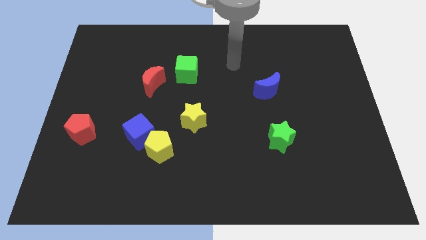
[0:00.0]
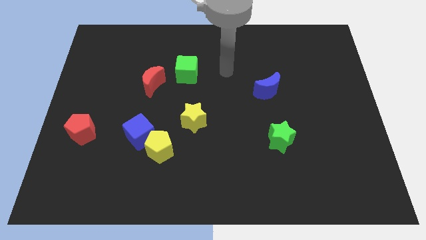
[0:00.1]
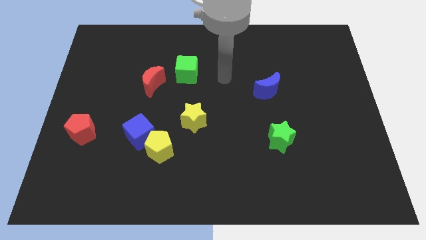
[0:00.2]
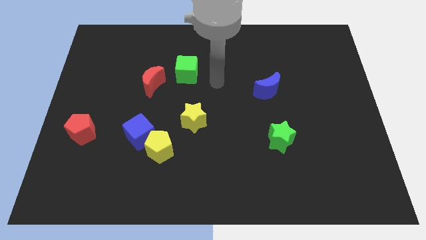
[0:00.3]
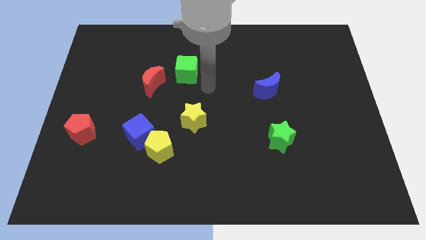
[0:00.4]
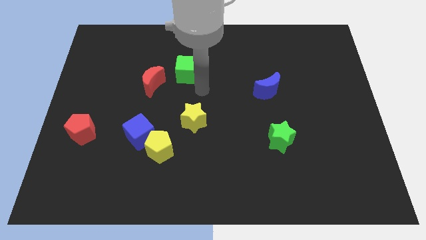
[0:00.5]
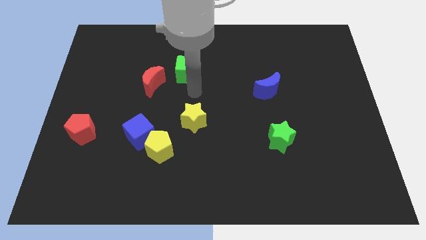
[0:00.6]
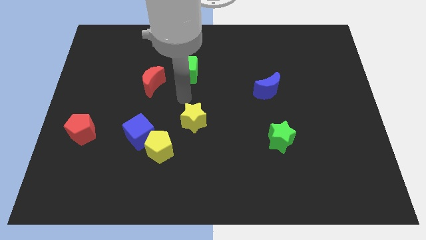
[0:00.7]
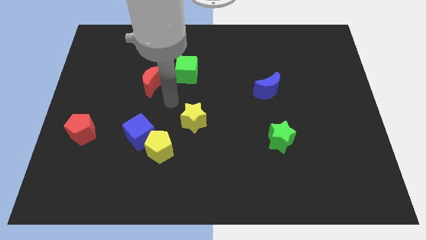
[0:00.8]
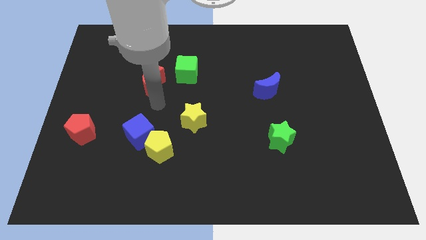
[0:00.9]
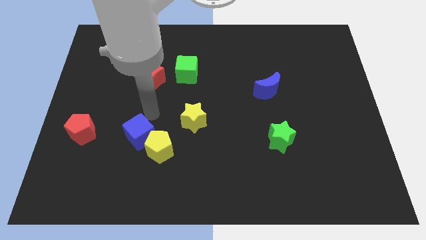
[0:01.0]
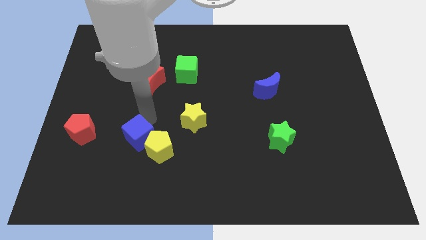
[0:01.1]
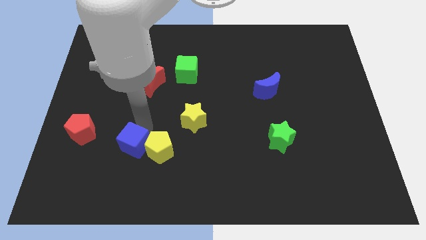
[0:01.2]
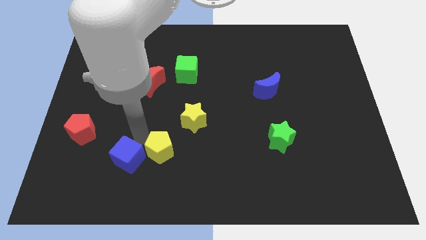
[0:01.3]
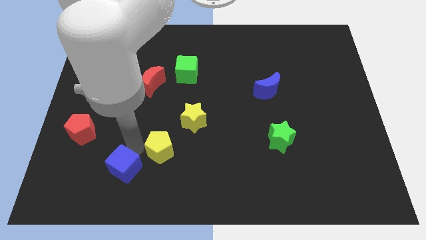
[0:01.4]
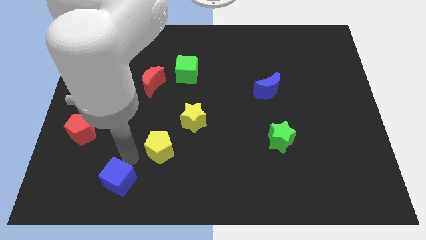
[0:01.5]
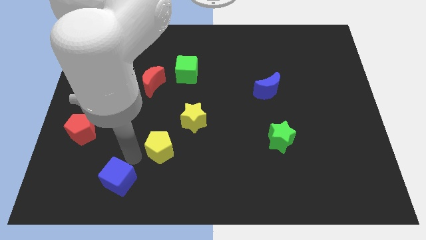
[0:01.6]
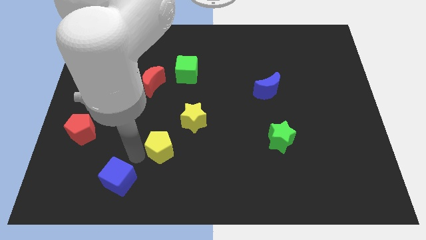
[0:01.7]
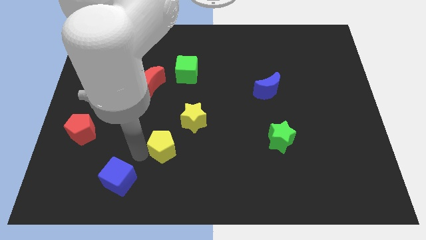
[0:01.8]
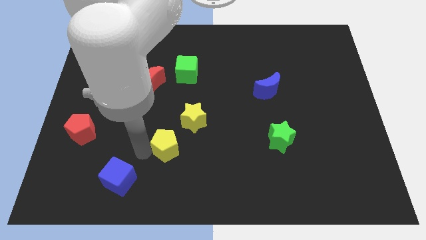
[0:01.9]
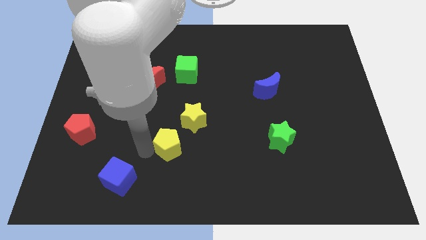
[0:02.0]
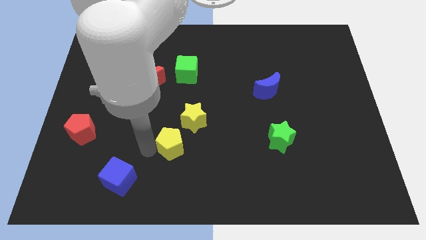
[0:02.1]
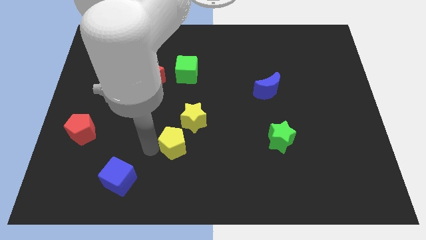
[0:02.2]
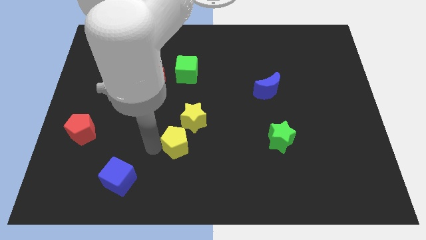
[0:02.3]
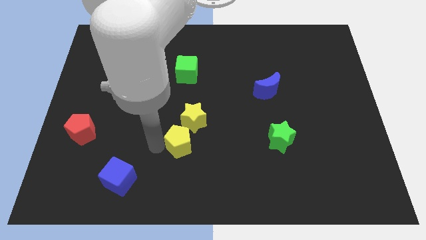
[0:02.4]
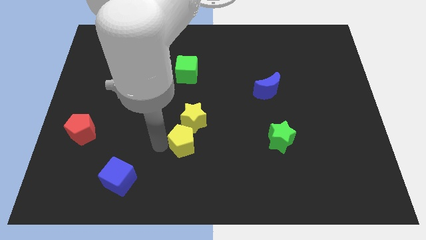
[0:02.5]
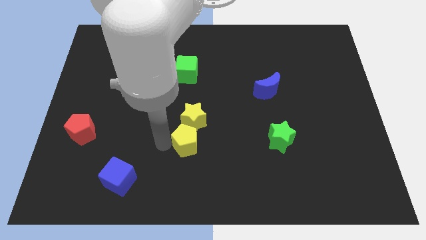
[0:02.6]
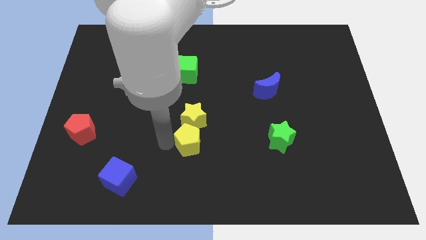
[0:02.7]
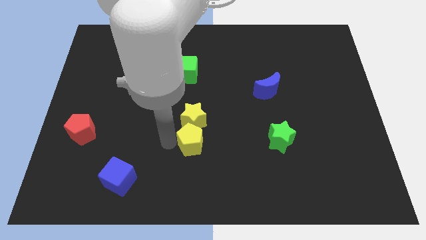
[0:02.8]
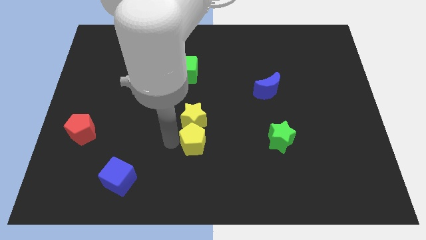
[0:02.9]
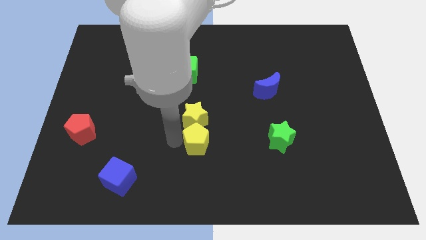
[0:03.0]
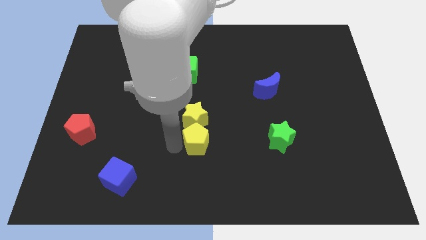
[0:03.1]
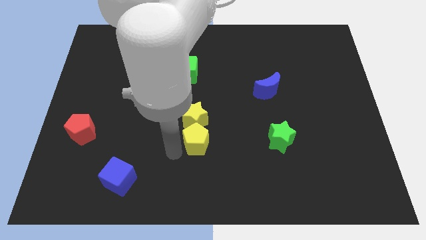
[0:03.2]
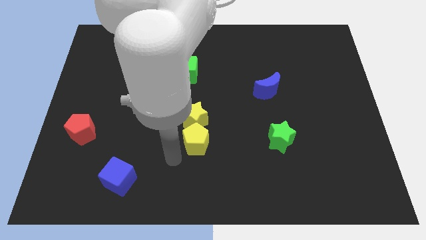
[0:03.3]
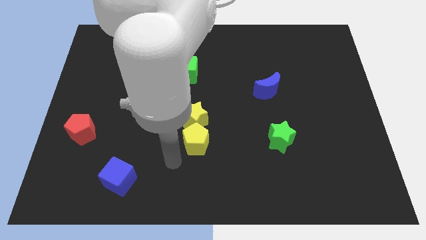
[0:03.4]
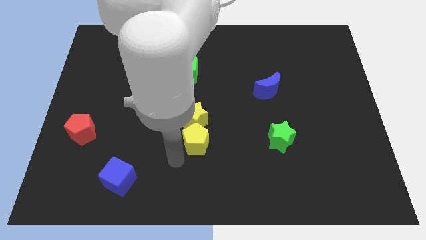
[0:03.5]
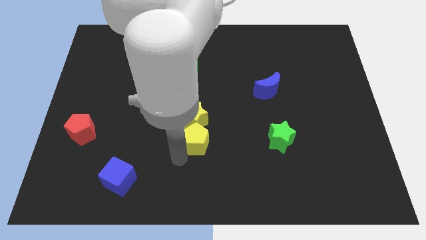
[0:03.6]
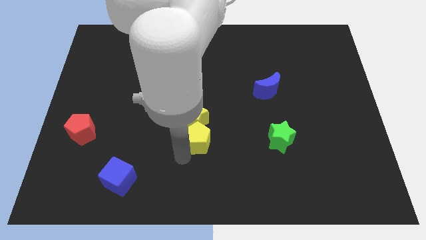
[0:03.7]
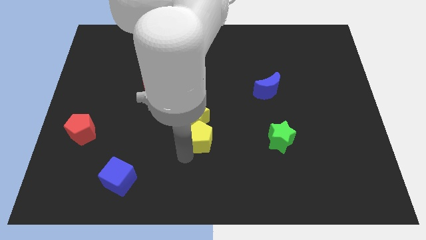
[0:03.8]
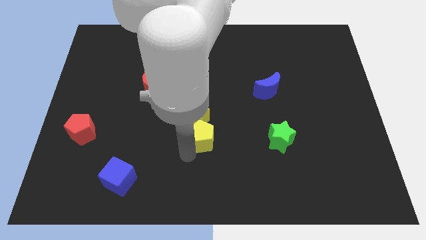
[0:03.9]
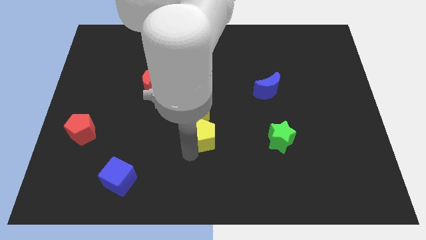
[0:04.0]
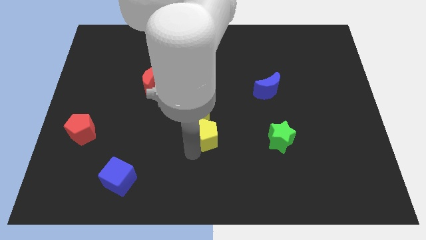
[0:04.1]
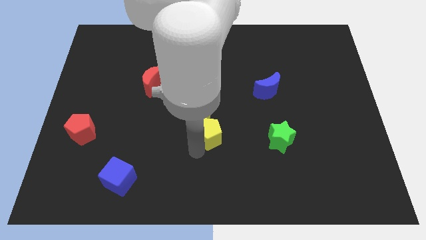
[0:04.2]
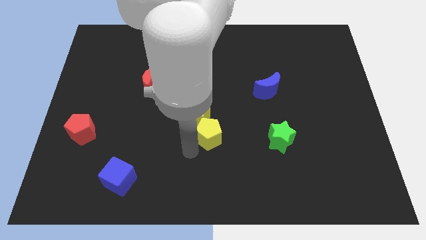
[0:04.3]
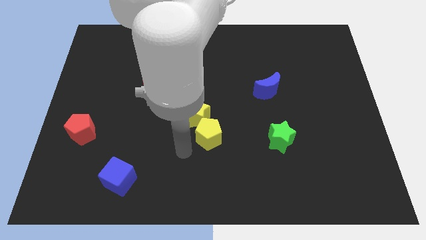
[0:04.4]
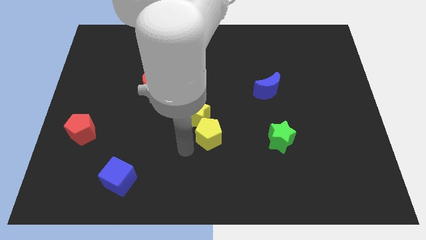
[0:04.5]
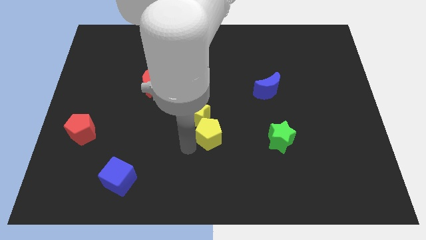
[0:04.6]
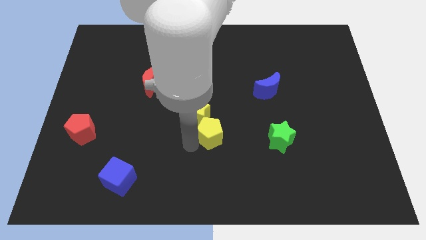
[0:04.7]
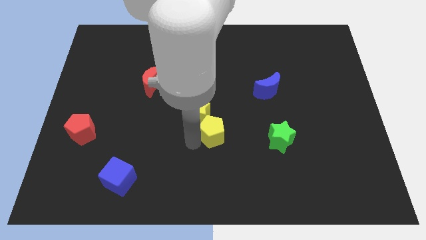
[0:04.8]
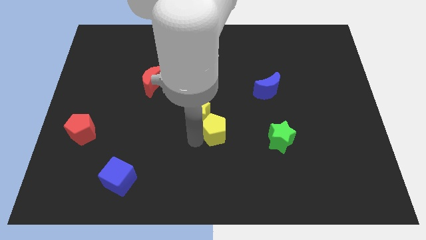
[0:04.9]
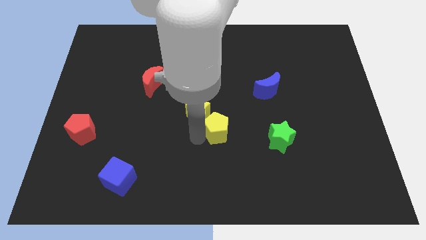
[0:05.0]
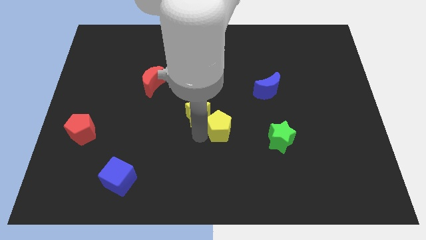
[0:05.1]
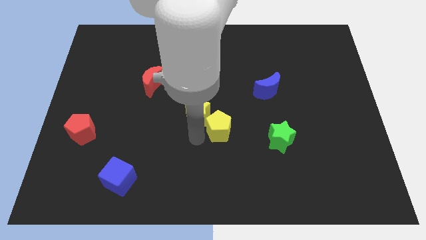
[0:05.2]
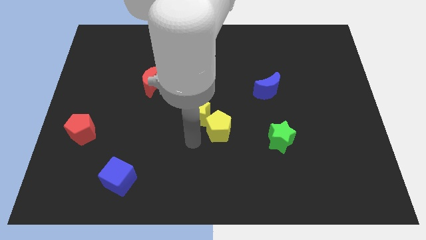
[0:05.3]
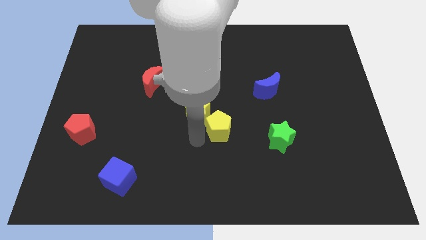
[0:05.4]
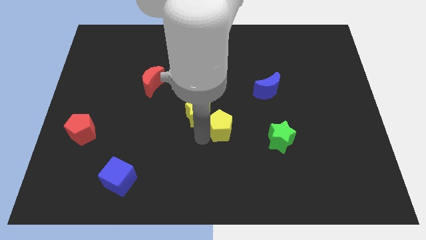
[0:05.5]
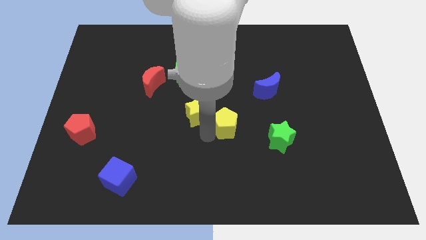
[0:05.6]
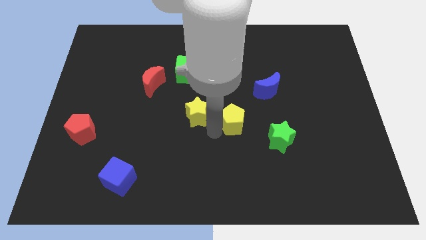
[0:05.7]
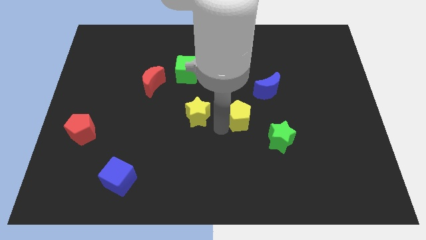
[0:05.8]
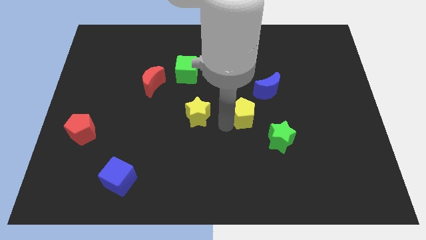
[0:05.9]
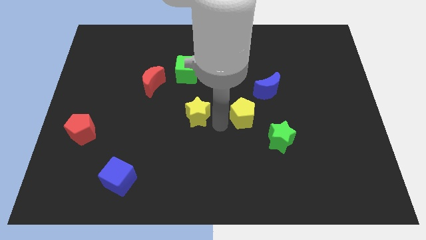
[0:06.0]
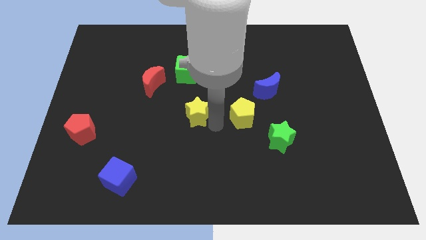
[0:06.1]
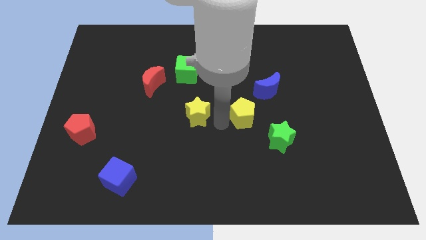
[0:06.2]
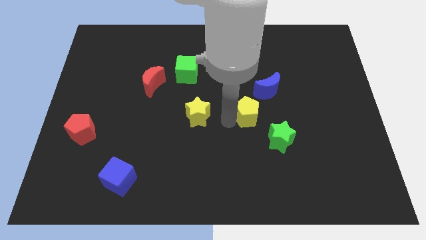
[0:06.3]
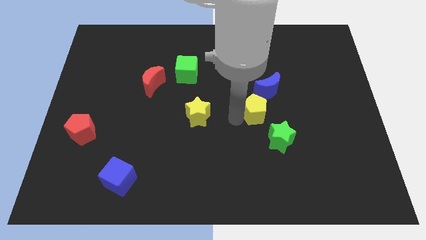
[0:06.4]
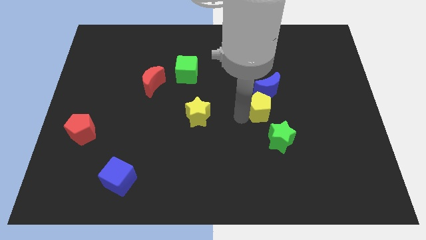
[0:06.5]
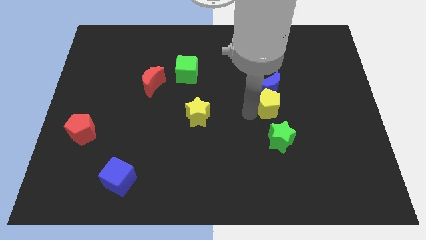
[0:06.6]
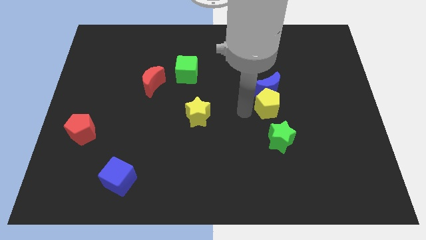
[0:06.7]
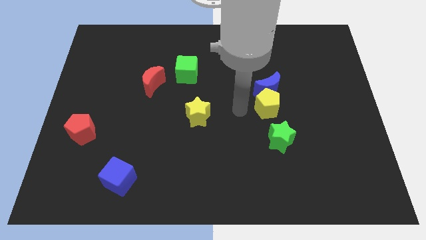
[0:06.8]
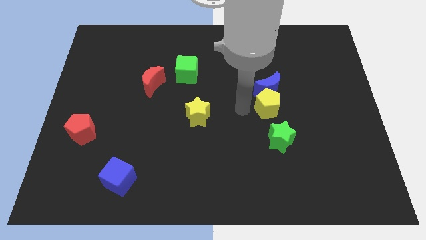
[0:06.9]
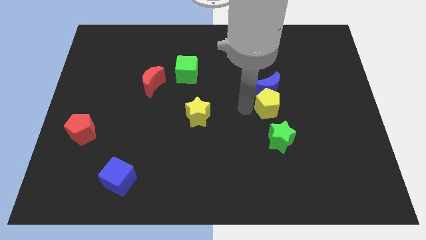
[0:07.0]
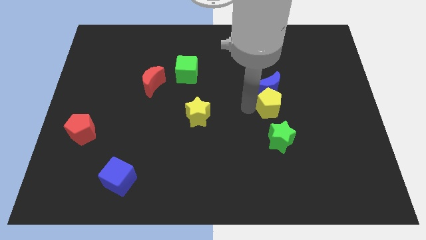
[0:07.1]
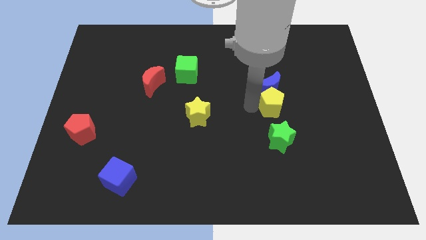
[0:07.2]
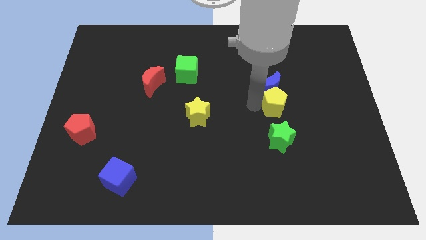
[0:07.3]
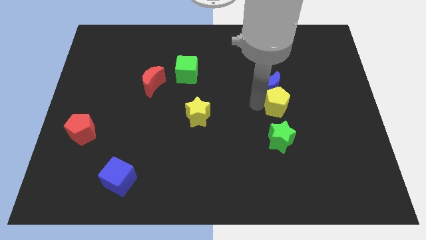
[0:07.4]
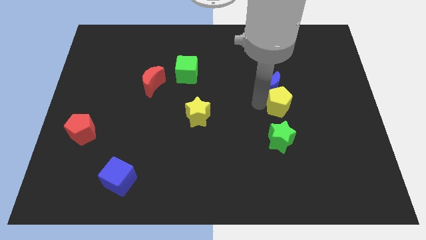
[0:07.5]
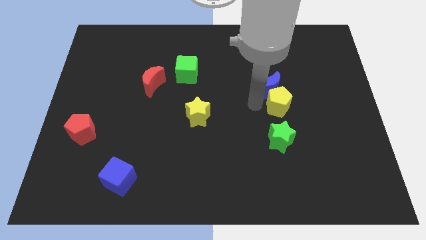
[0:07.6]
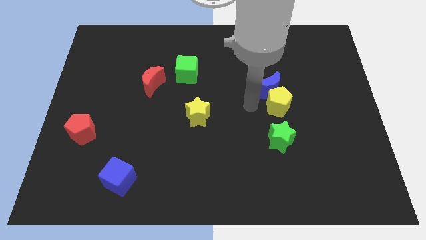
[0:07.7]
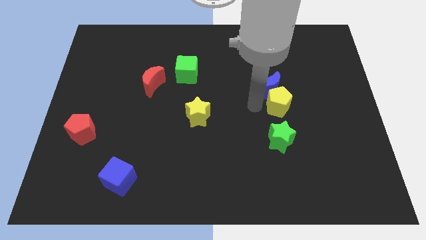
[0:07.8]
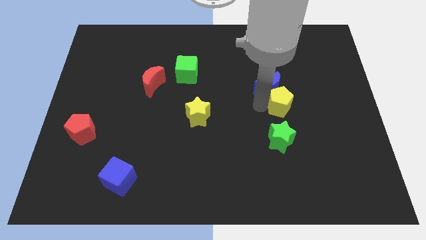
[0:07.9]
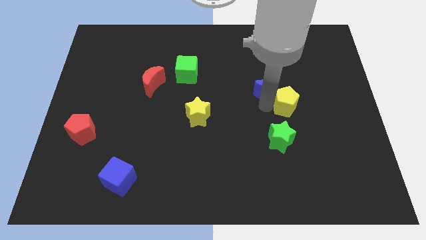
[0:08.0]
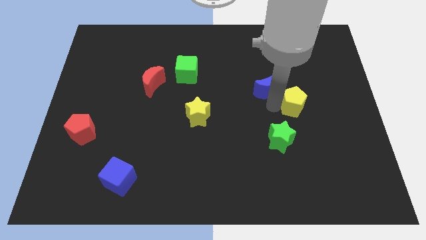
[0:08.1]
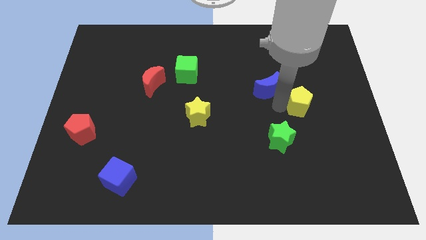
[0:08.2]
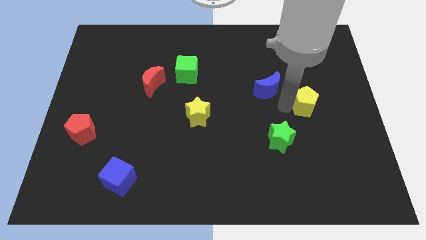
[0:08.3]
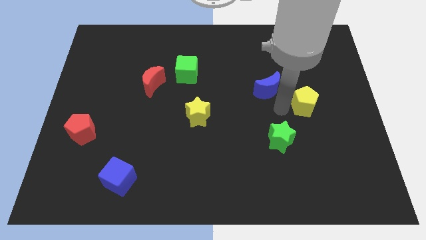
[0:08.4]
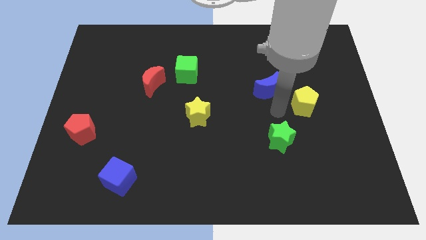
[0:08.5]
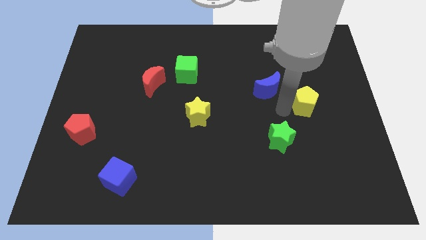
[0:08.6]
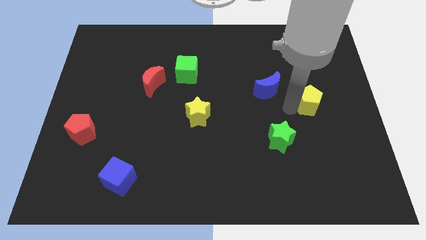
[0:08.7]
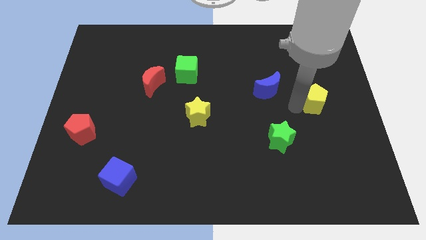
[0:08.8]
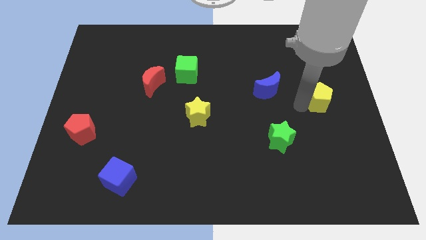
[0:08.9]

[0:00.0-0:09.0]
move the yellow pentagon to the right side of the board
